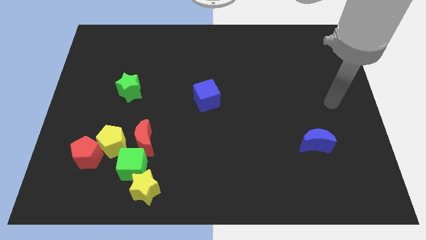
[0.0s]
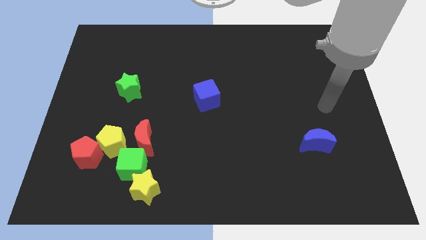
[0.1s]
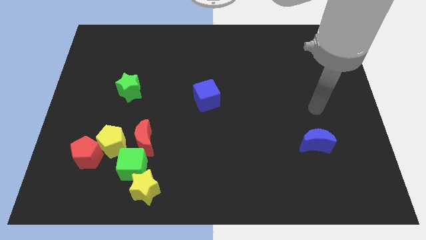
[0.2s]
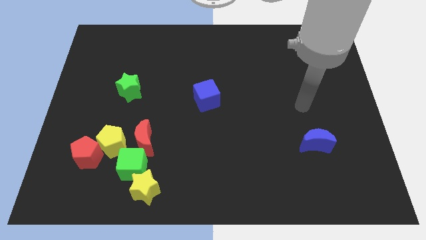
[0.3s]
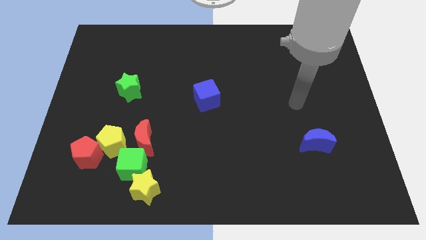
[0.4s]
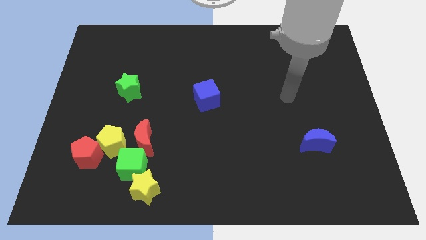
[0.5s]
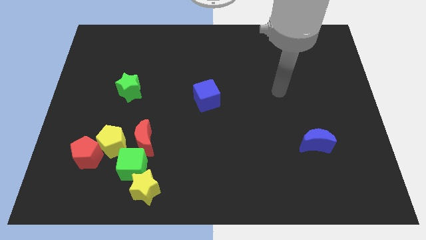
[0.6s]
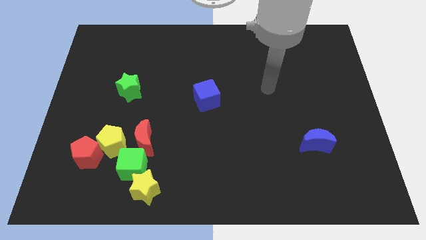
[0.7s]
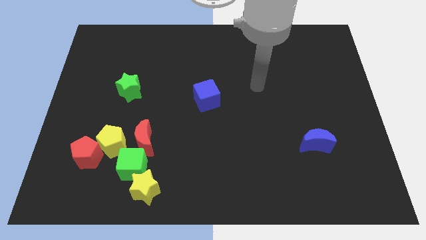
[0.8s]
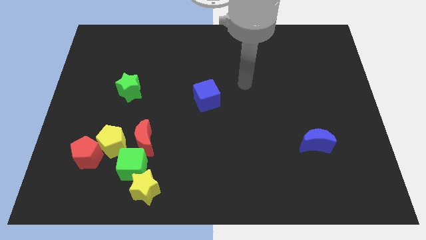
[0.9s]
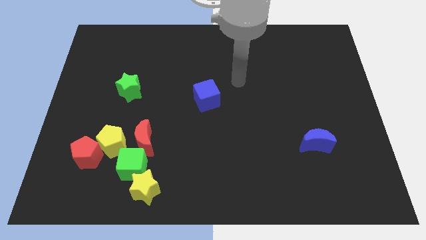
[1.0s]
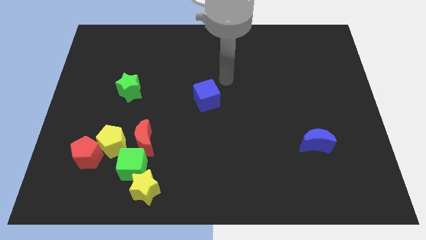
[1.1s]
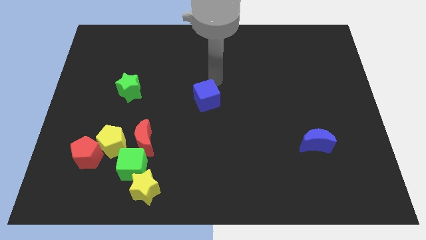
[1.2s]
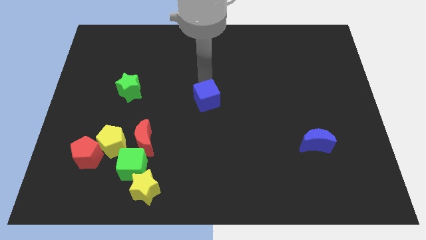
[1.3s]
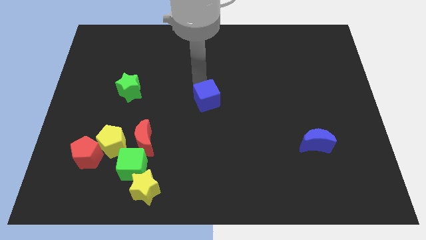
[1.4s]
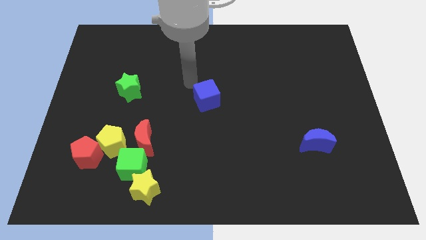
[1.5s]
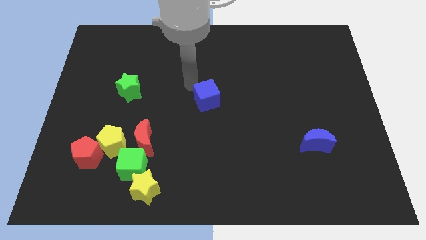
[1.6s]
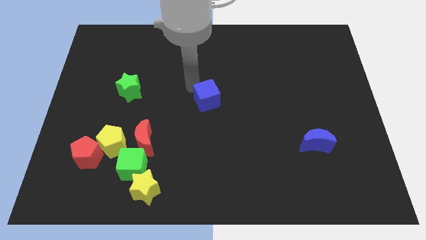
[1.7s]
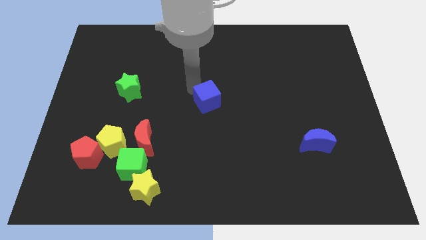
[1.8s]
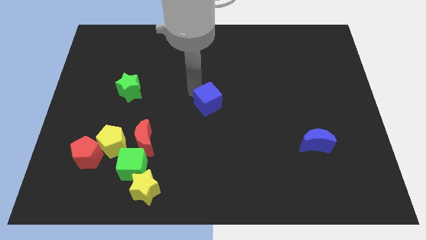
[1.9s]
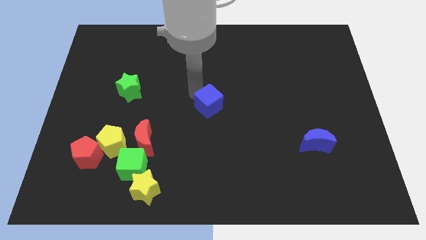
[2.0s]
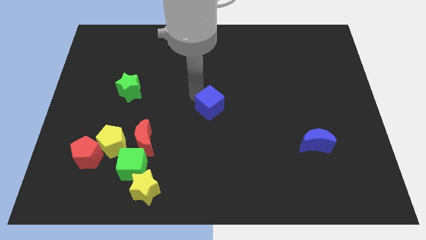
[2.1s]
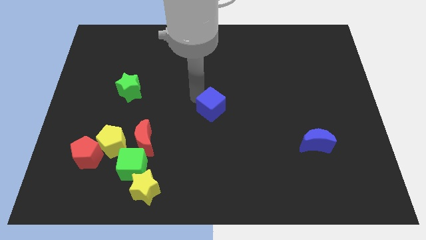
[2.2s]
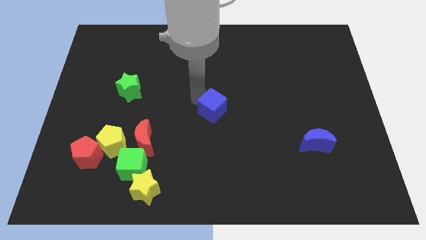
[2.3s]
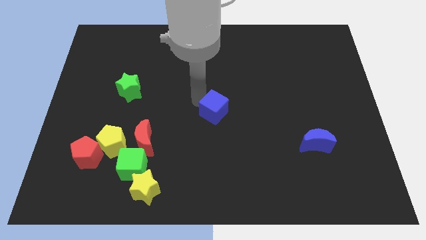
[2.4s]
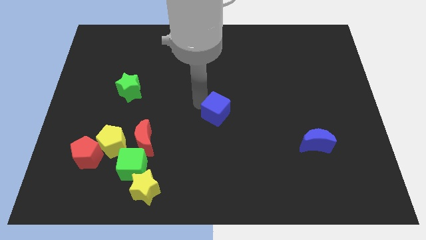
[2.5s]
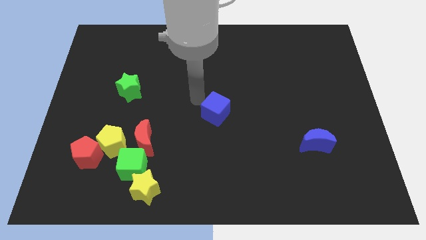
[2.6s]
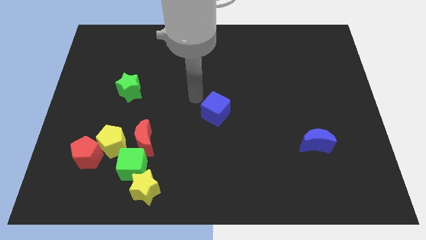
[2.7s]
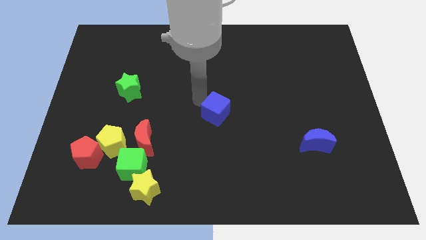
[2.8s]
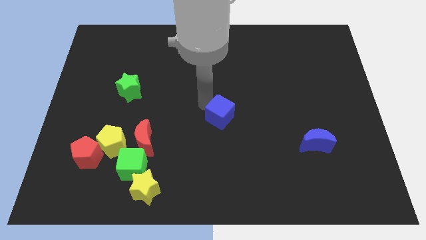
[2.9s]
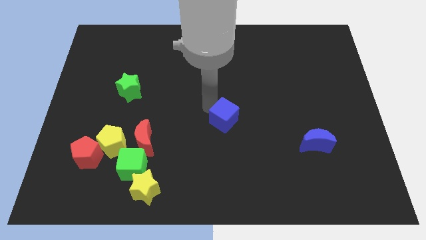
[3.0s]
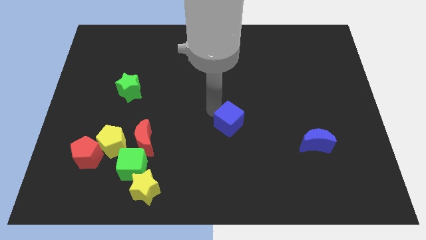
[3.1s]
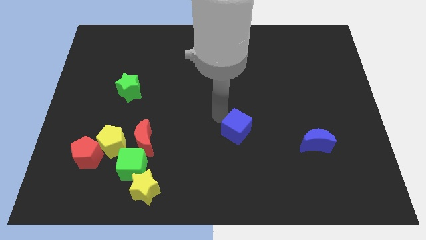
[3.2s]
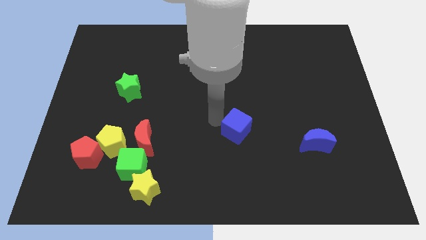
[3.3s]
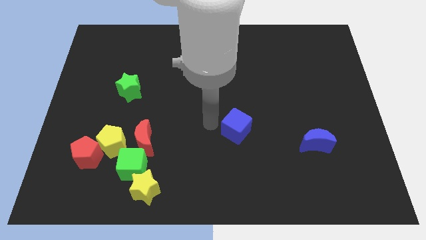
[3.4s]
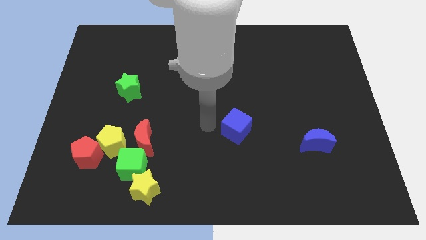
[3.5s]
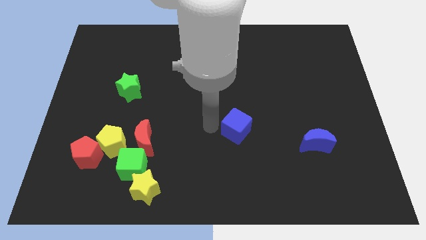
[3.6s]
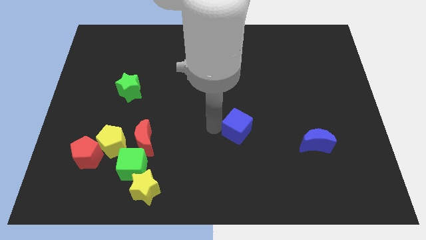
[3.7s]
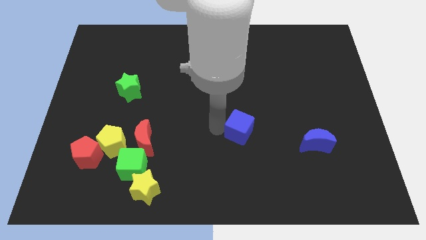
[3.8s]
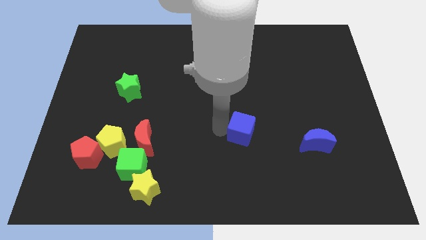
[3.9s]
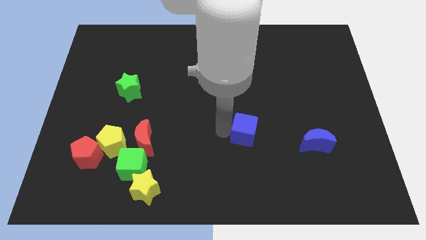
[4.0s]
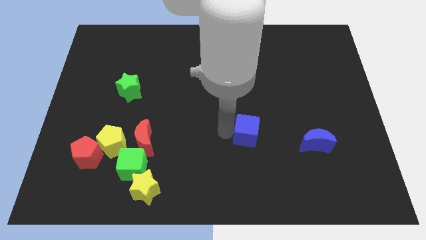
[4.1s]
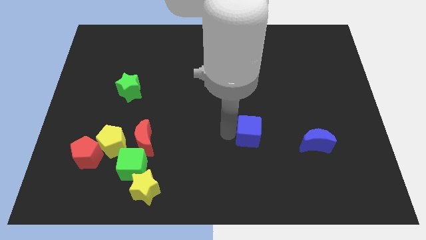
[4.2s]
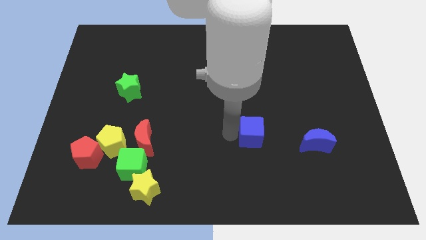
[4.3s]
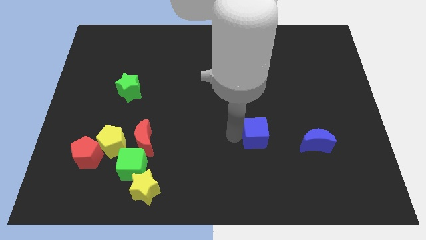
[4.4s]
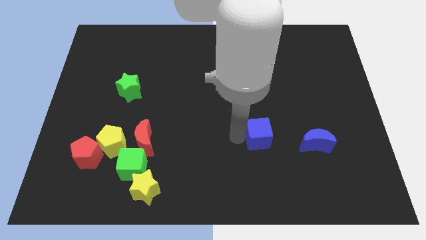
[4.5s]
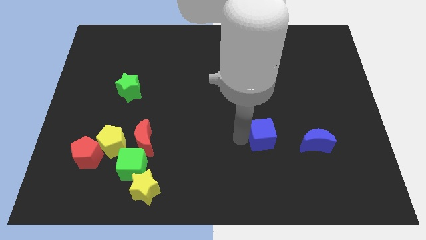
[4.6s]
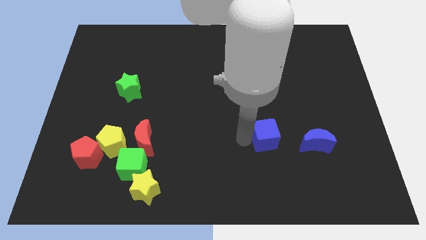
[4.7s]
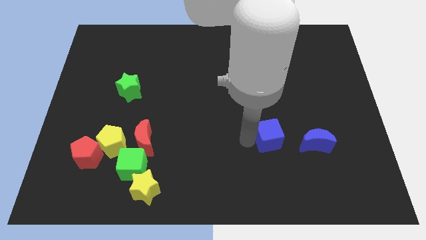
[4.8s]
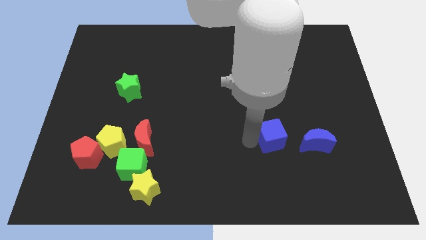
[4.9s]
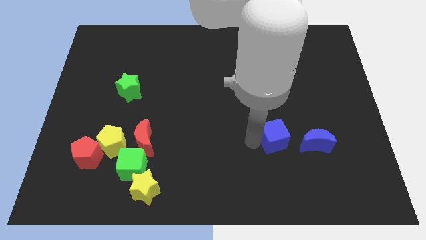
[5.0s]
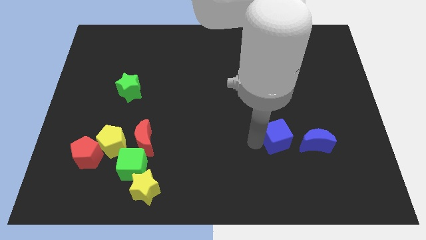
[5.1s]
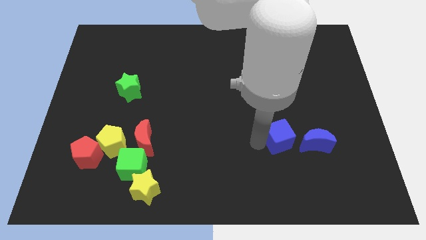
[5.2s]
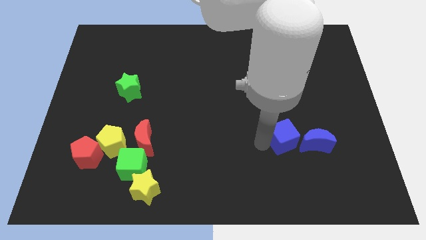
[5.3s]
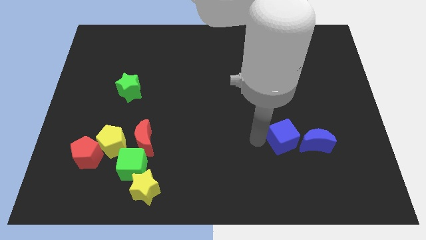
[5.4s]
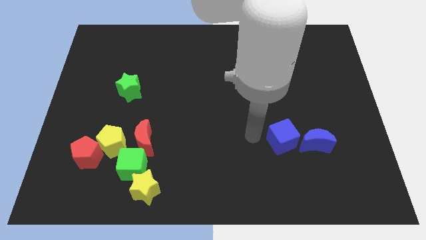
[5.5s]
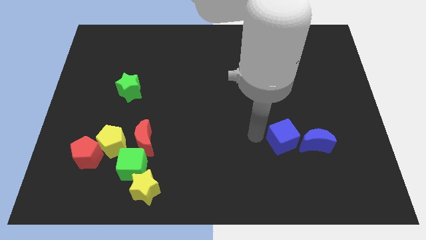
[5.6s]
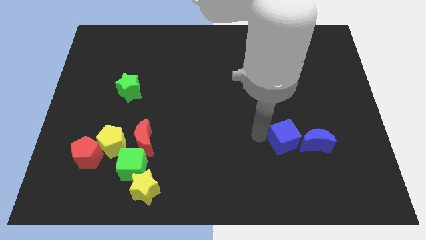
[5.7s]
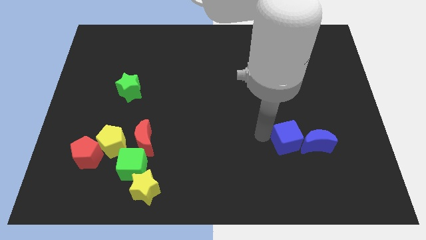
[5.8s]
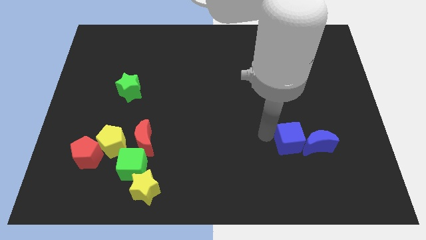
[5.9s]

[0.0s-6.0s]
put the blue cube next to the blue moon

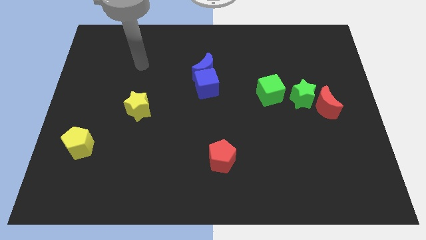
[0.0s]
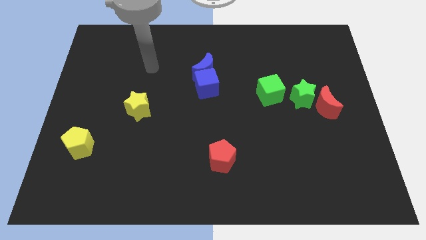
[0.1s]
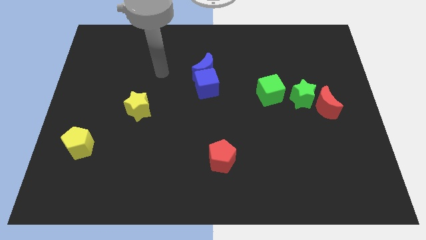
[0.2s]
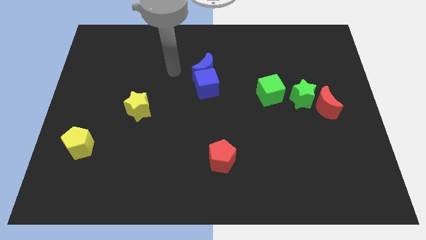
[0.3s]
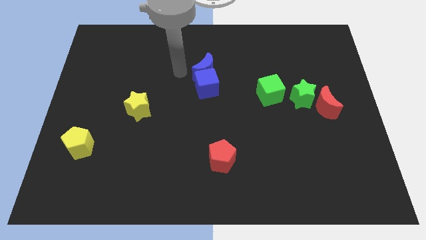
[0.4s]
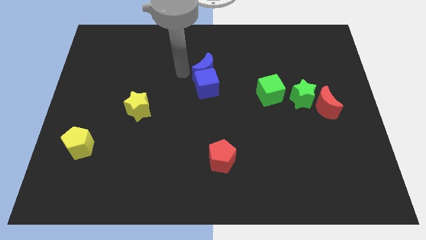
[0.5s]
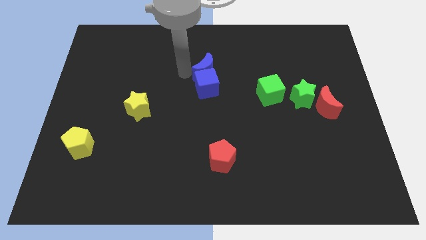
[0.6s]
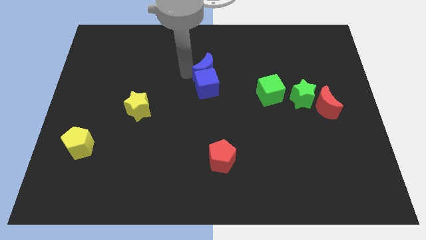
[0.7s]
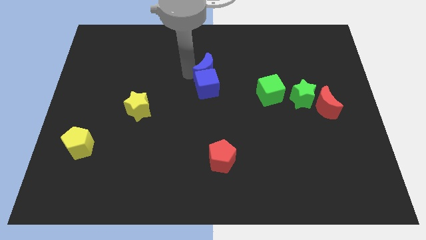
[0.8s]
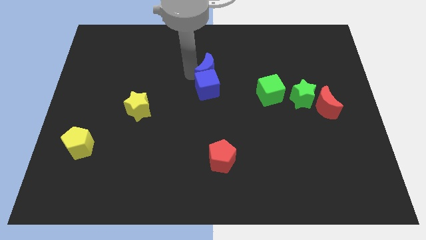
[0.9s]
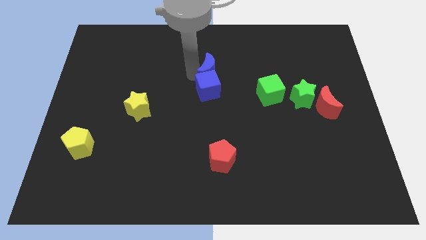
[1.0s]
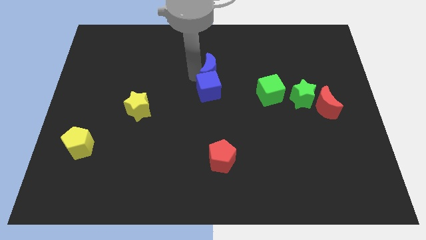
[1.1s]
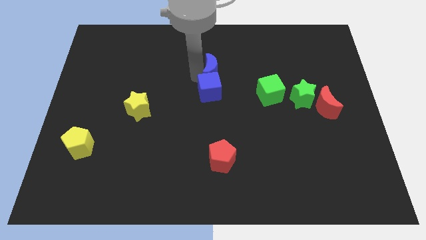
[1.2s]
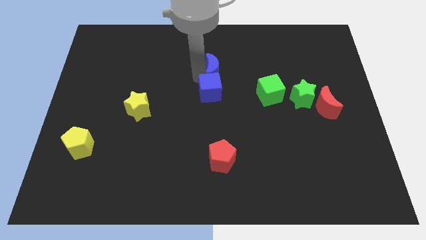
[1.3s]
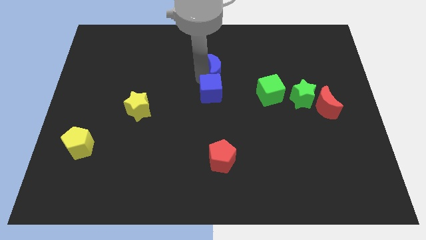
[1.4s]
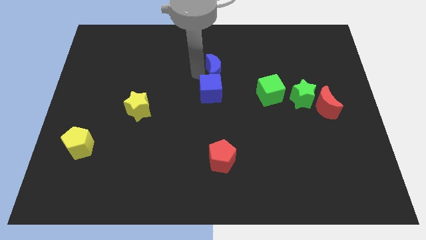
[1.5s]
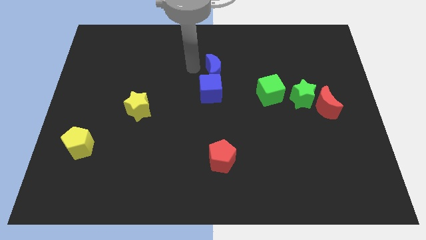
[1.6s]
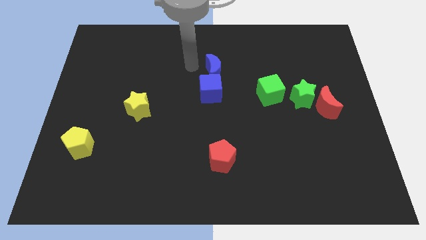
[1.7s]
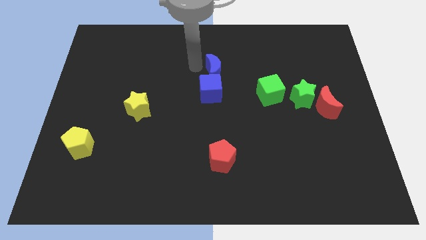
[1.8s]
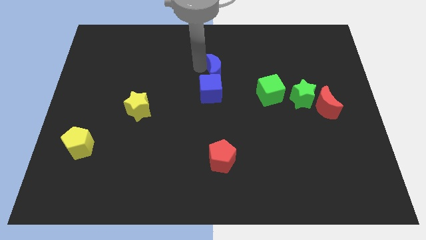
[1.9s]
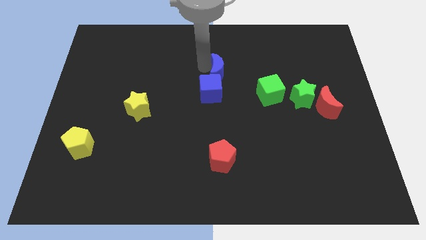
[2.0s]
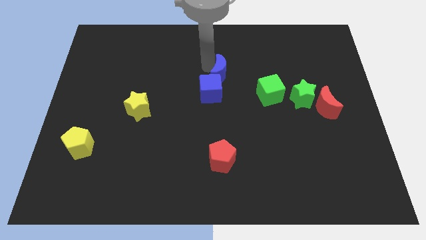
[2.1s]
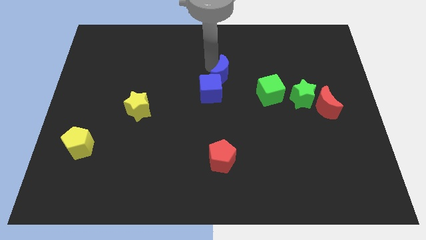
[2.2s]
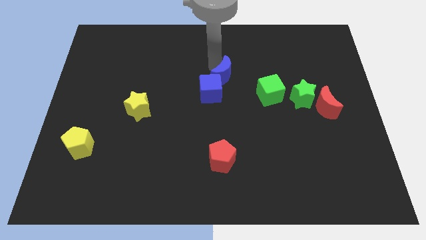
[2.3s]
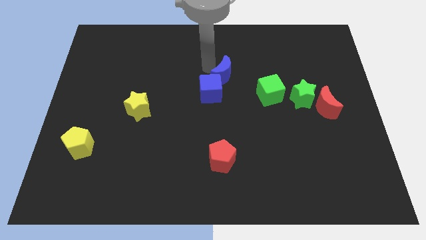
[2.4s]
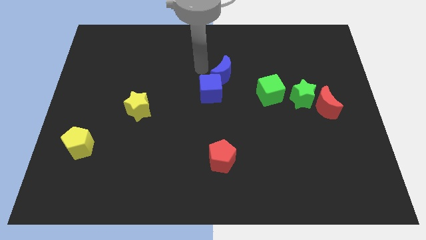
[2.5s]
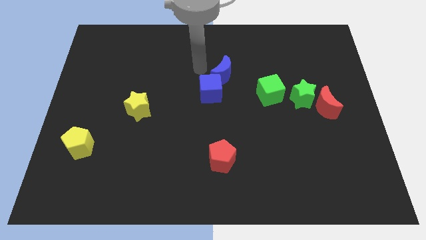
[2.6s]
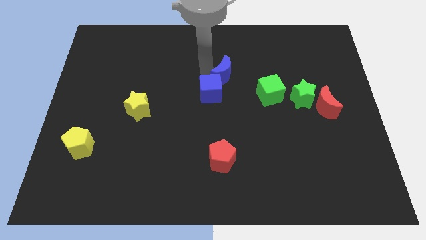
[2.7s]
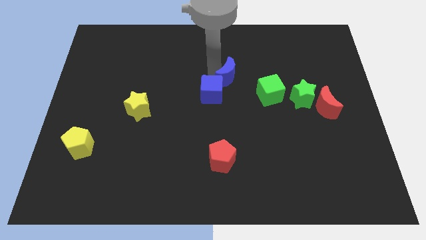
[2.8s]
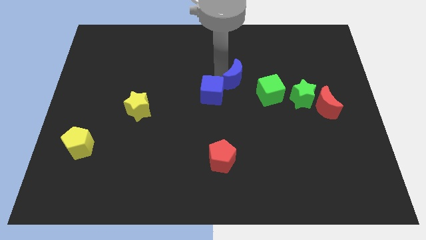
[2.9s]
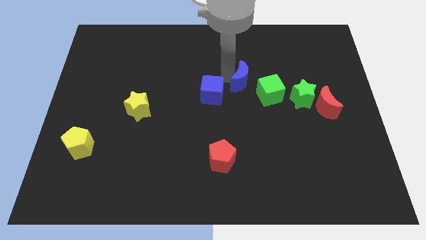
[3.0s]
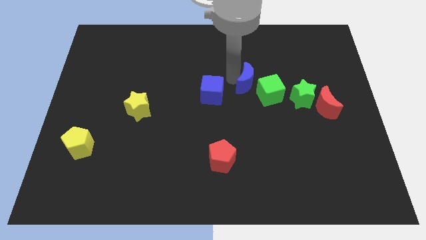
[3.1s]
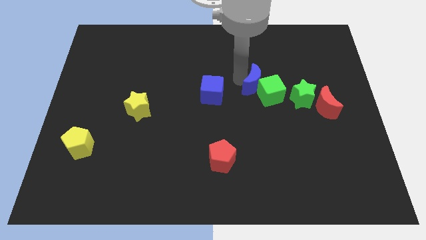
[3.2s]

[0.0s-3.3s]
put the blue moon next to the green cube
